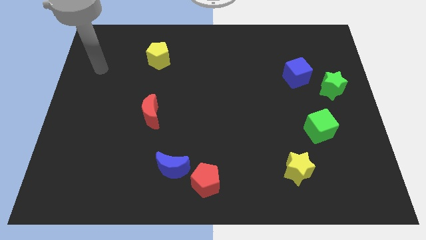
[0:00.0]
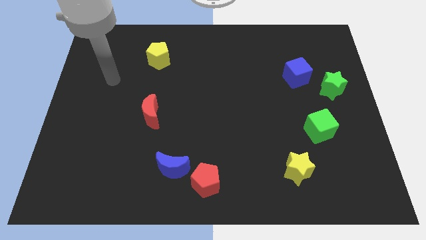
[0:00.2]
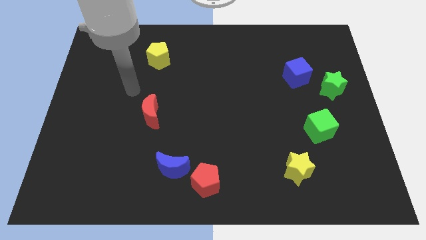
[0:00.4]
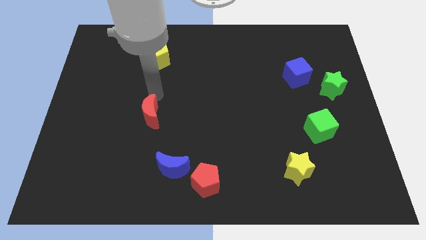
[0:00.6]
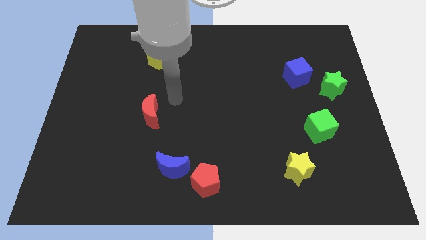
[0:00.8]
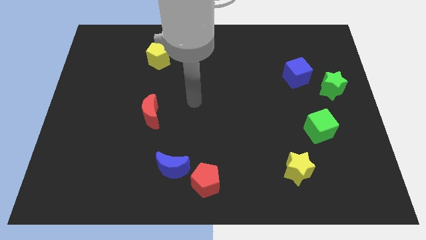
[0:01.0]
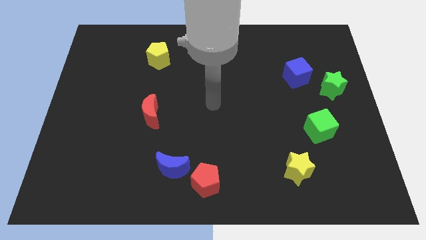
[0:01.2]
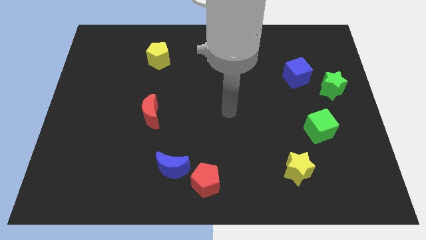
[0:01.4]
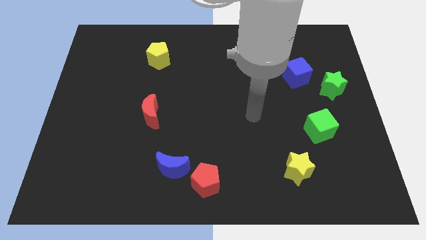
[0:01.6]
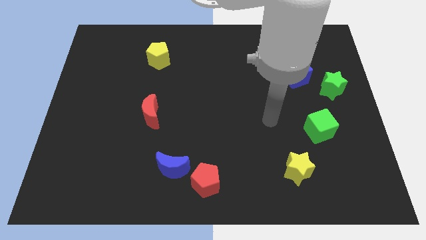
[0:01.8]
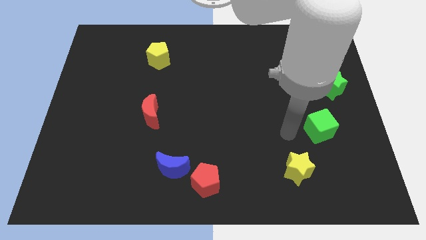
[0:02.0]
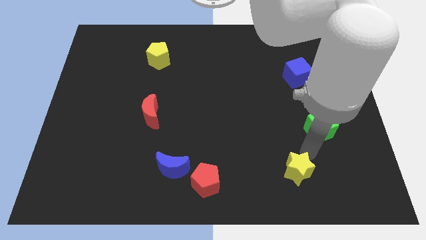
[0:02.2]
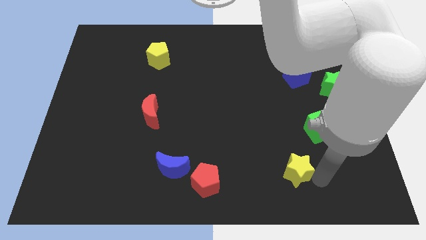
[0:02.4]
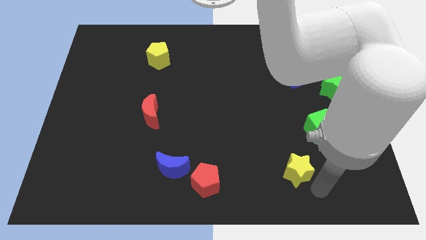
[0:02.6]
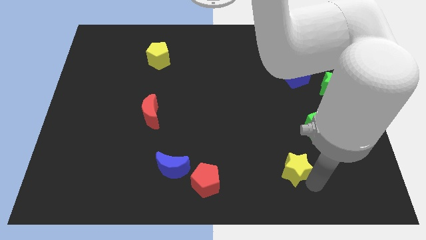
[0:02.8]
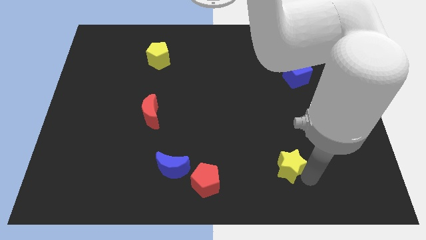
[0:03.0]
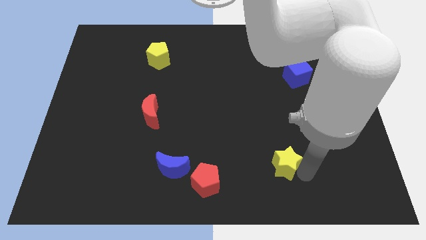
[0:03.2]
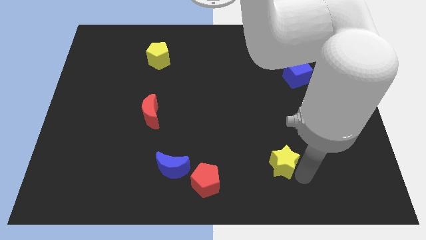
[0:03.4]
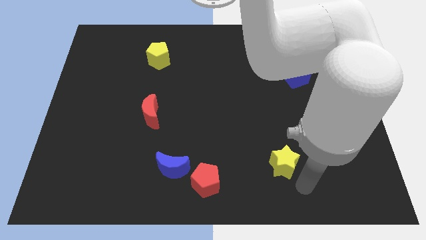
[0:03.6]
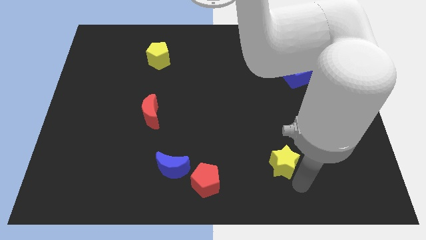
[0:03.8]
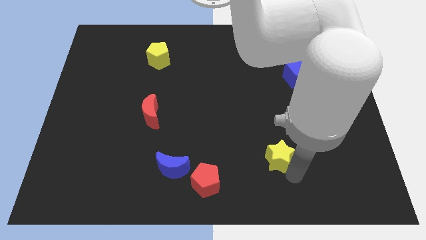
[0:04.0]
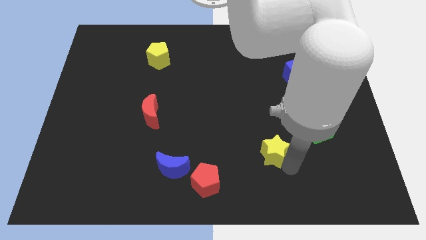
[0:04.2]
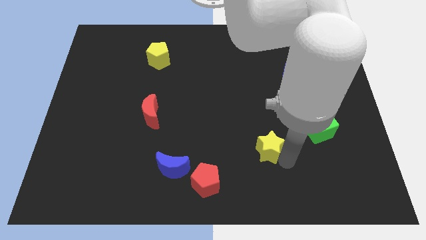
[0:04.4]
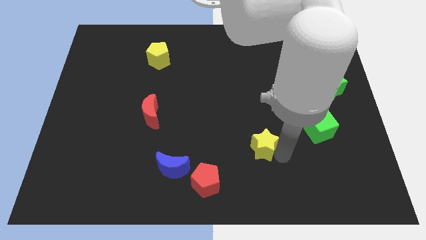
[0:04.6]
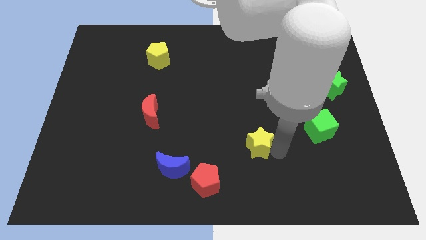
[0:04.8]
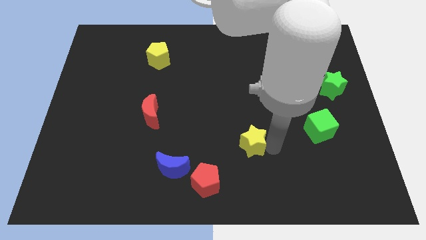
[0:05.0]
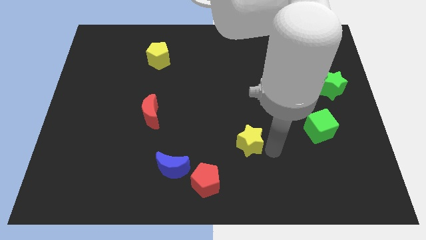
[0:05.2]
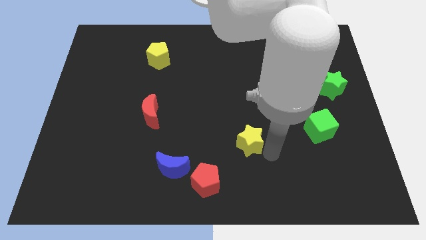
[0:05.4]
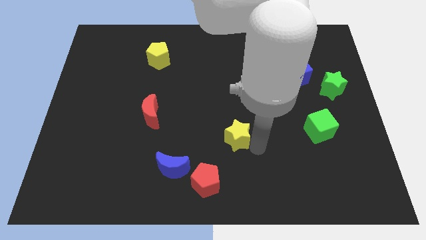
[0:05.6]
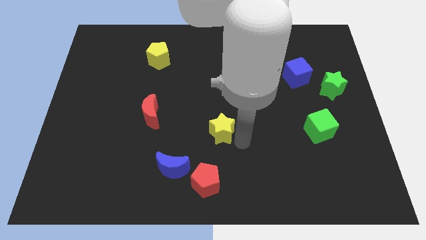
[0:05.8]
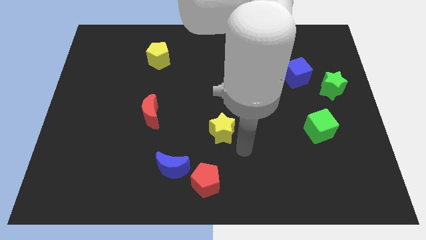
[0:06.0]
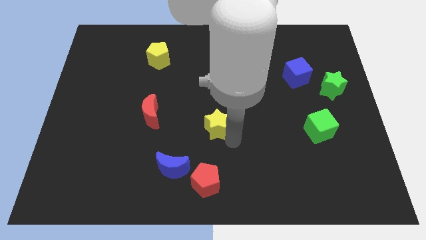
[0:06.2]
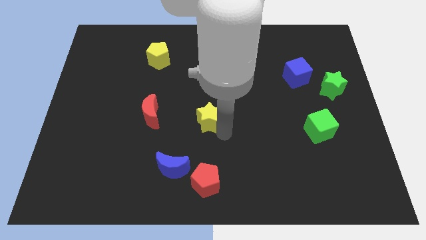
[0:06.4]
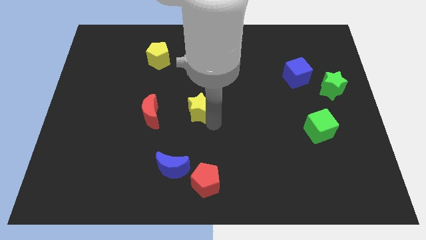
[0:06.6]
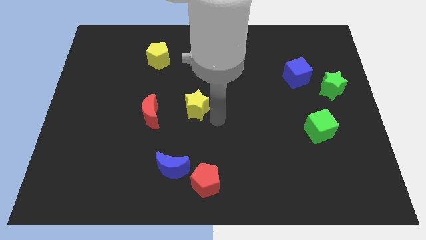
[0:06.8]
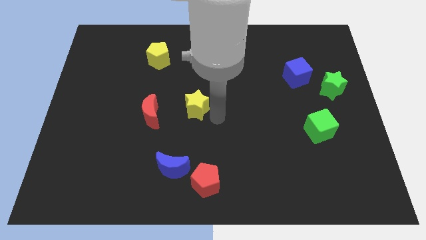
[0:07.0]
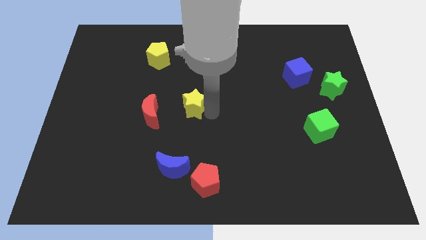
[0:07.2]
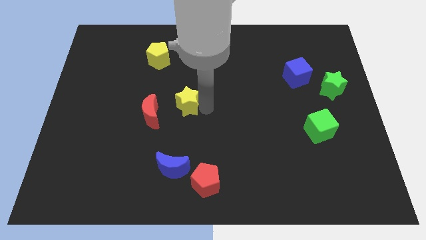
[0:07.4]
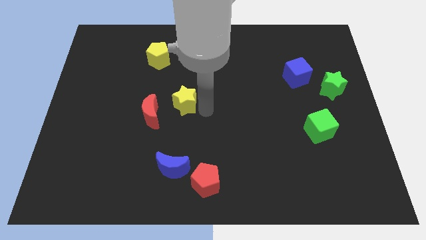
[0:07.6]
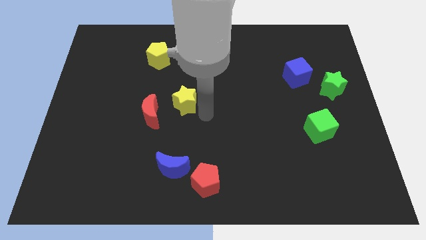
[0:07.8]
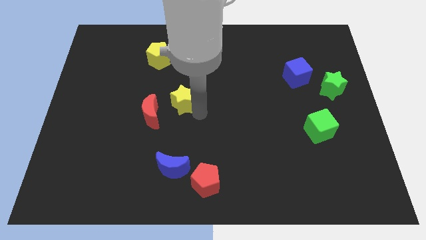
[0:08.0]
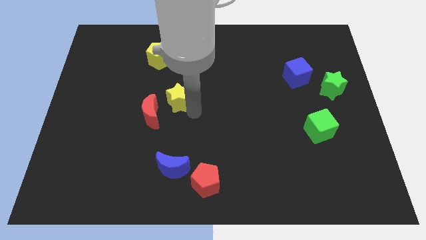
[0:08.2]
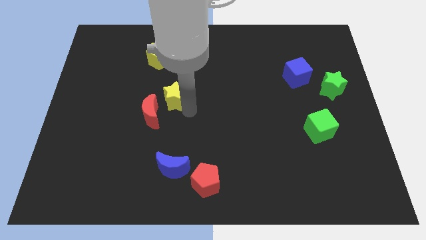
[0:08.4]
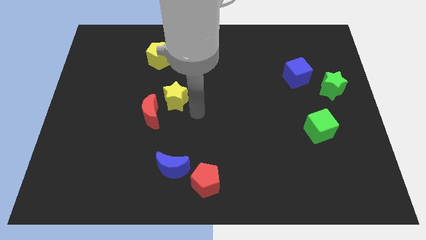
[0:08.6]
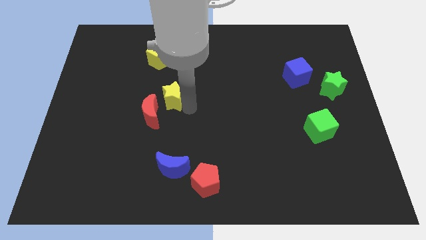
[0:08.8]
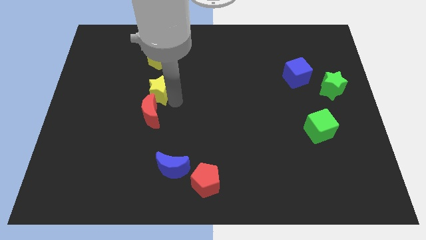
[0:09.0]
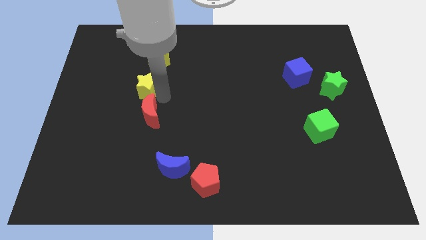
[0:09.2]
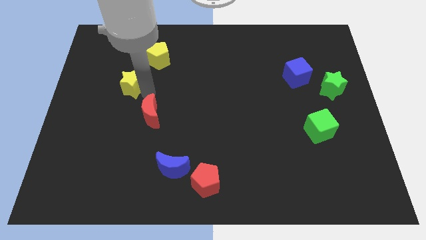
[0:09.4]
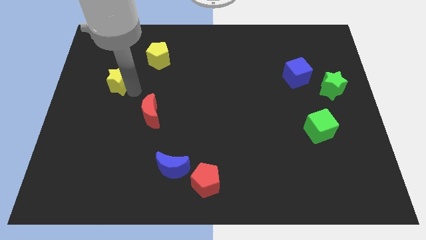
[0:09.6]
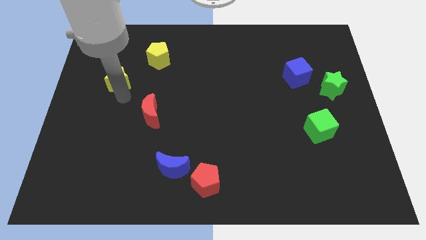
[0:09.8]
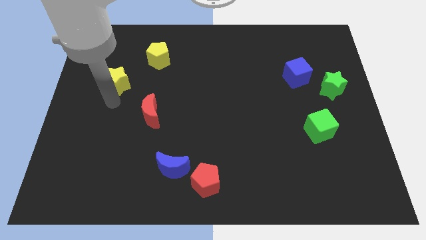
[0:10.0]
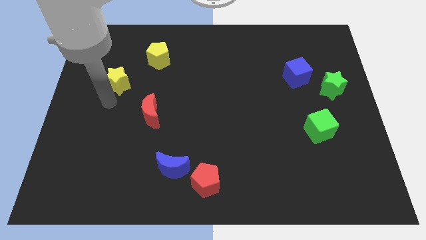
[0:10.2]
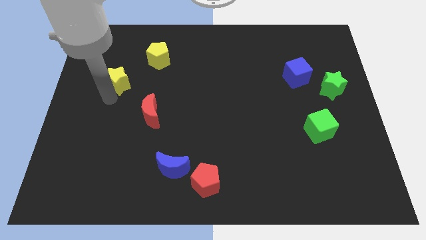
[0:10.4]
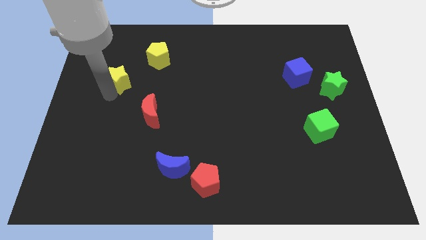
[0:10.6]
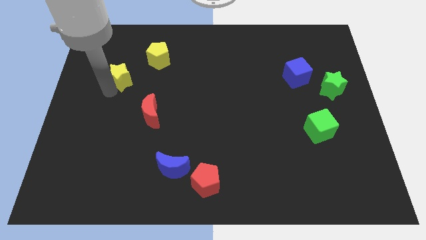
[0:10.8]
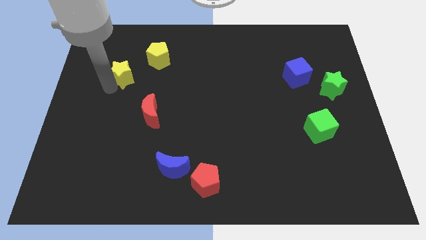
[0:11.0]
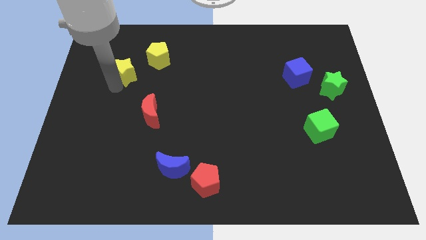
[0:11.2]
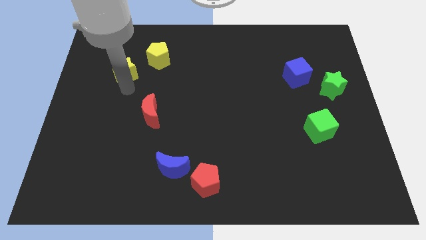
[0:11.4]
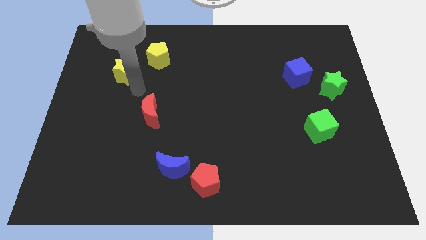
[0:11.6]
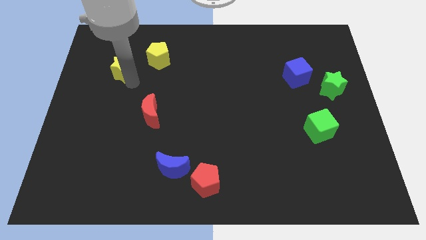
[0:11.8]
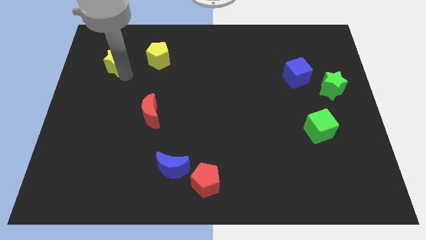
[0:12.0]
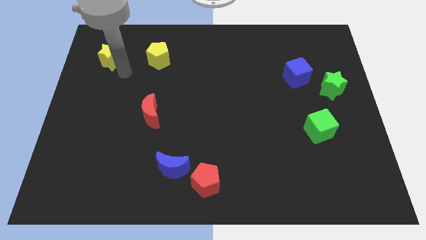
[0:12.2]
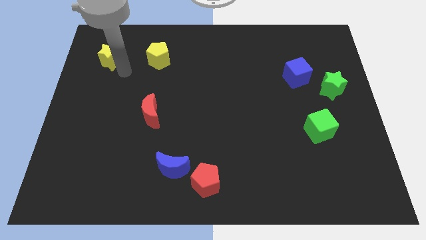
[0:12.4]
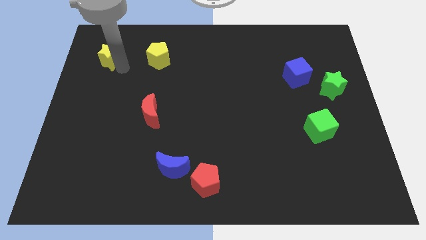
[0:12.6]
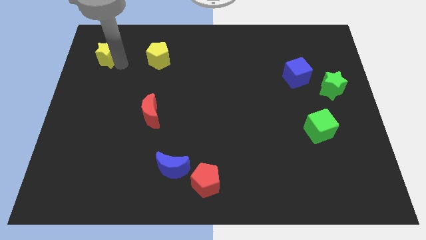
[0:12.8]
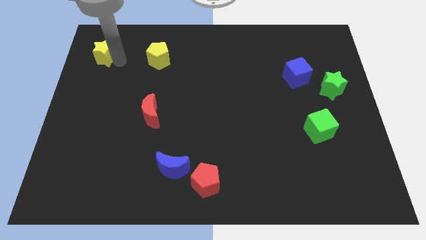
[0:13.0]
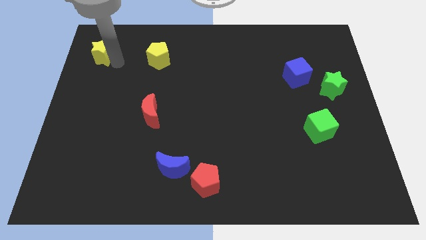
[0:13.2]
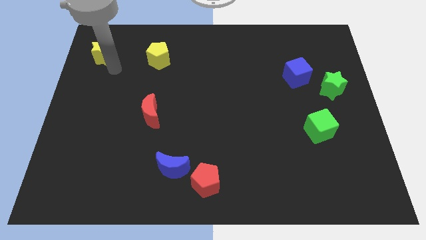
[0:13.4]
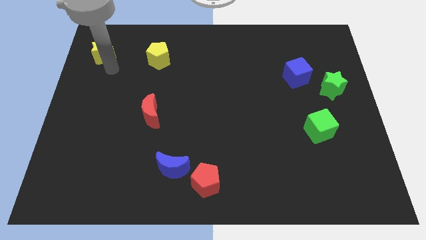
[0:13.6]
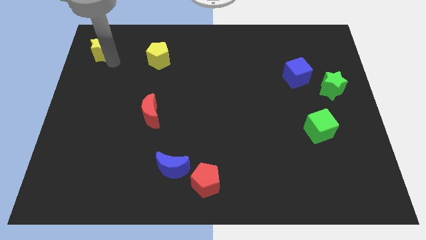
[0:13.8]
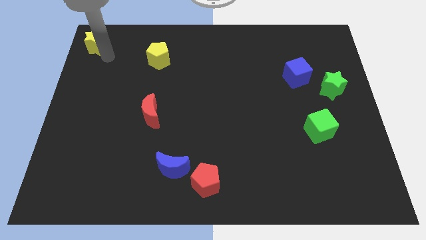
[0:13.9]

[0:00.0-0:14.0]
move the yellow star to the top left

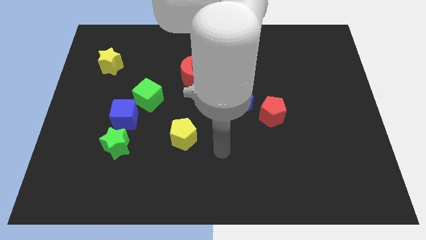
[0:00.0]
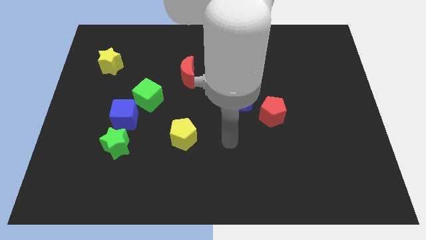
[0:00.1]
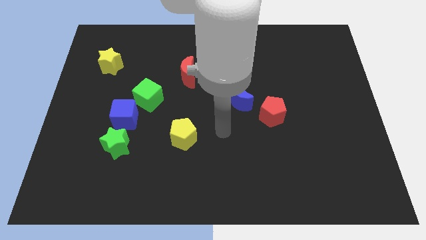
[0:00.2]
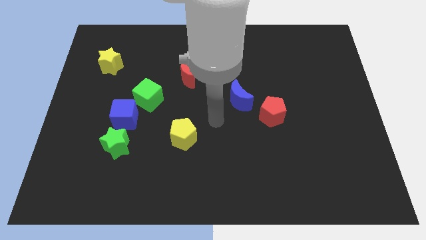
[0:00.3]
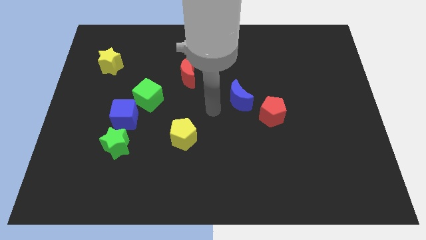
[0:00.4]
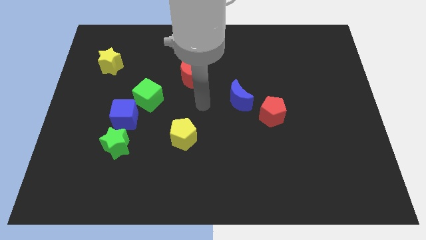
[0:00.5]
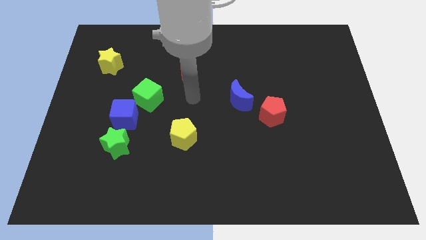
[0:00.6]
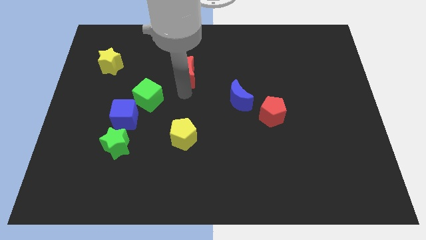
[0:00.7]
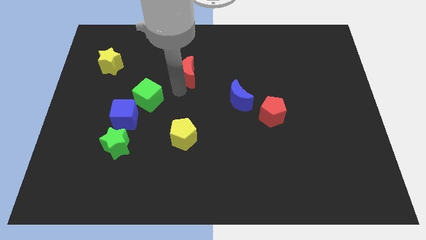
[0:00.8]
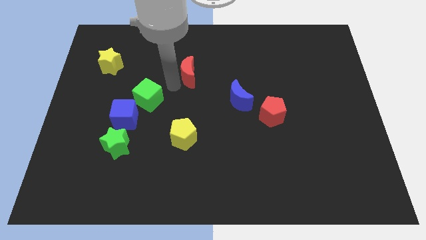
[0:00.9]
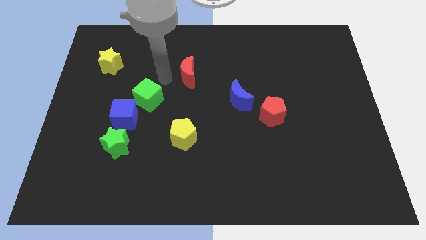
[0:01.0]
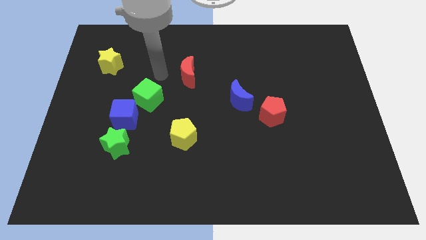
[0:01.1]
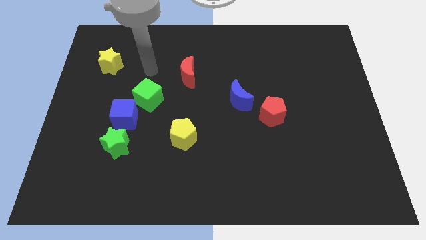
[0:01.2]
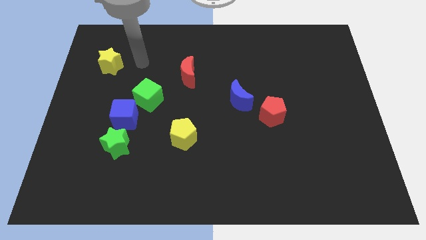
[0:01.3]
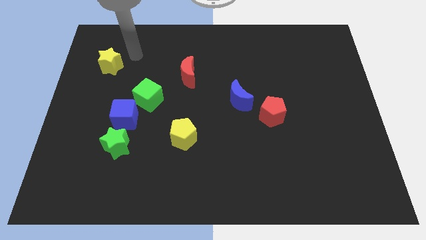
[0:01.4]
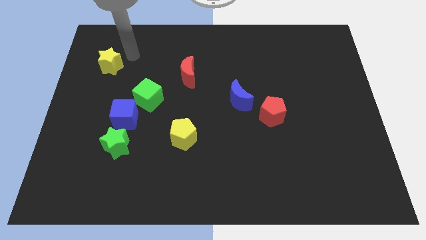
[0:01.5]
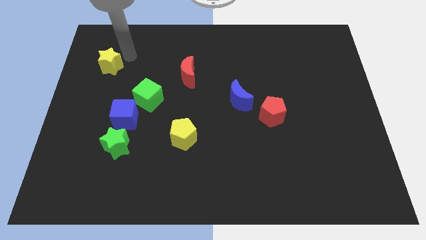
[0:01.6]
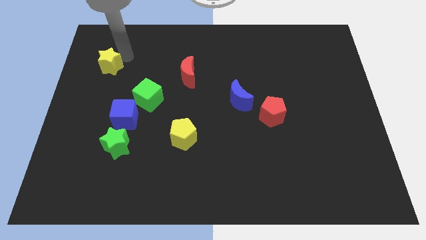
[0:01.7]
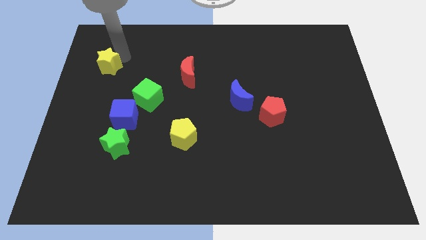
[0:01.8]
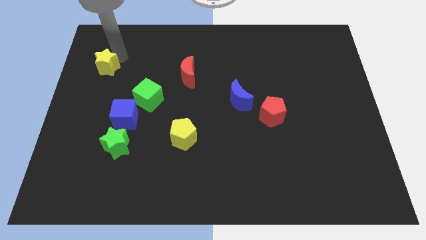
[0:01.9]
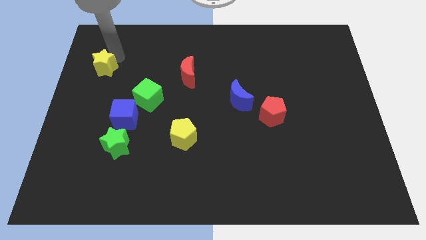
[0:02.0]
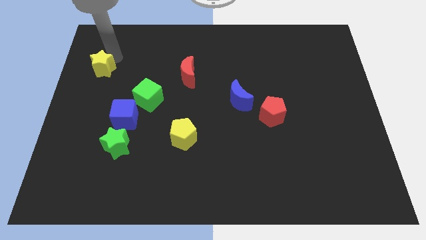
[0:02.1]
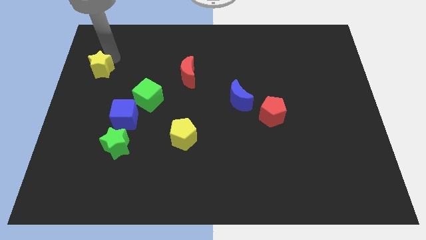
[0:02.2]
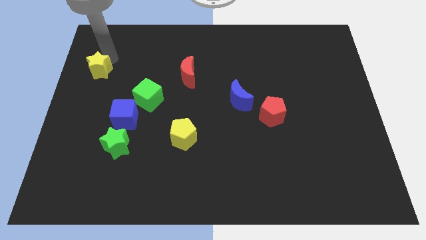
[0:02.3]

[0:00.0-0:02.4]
push the yellow star to the center left
